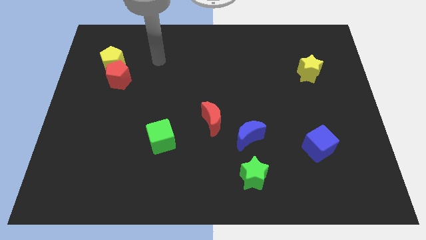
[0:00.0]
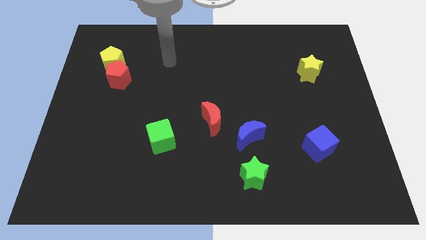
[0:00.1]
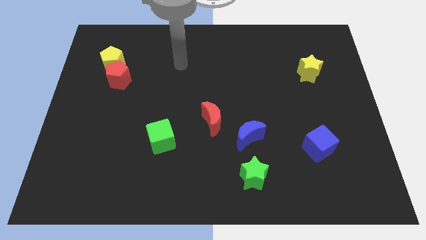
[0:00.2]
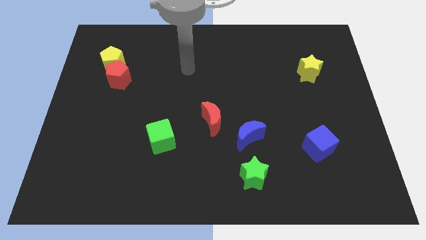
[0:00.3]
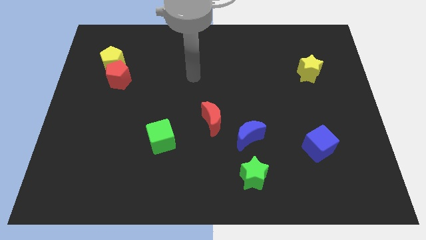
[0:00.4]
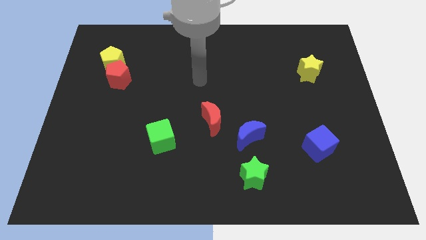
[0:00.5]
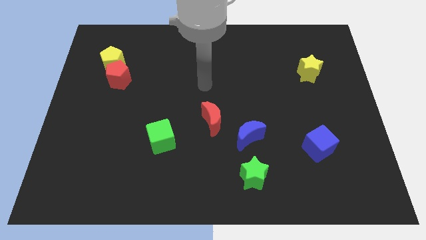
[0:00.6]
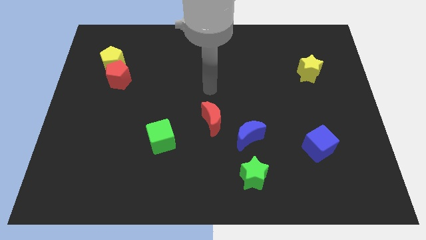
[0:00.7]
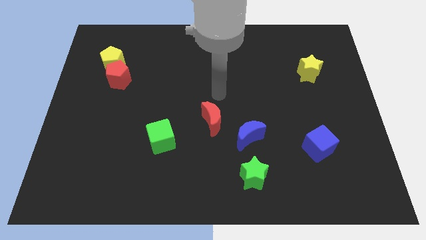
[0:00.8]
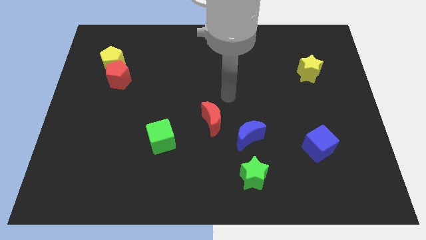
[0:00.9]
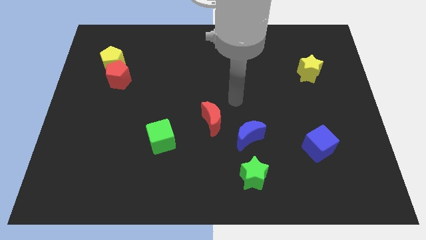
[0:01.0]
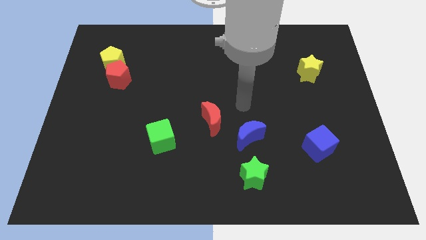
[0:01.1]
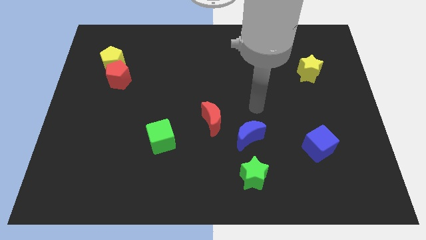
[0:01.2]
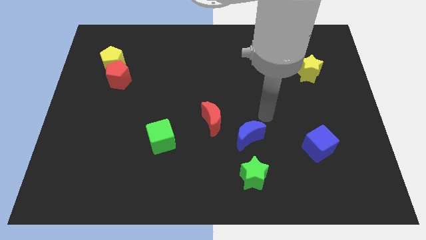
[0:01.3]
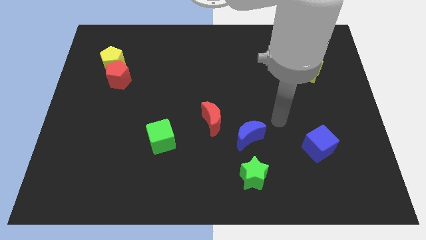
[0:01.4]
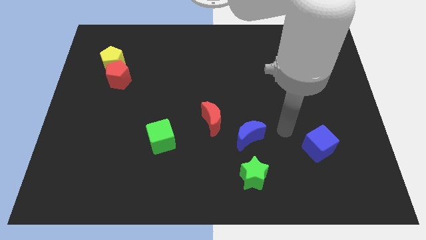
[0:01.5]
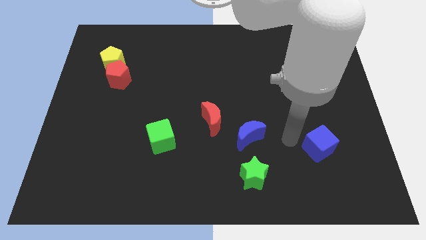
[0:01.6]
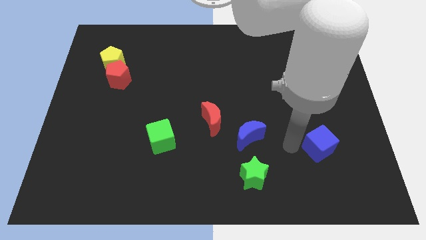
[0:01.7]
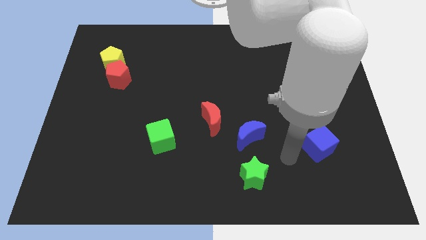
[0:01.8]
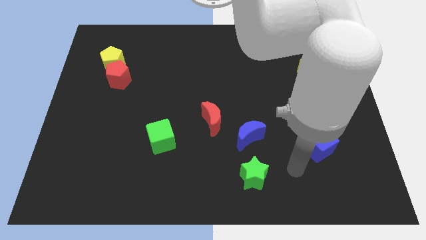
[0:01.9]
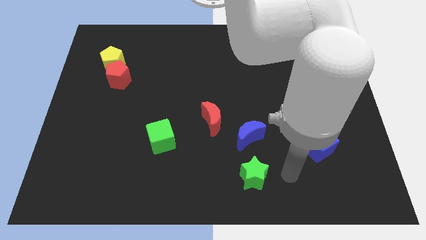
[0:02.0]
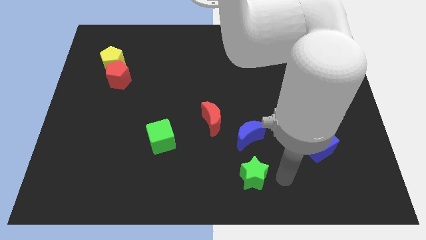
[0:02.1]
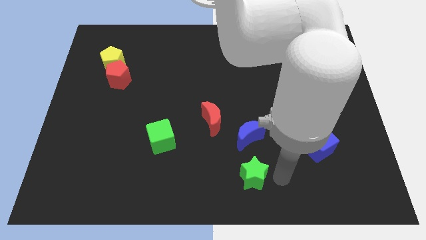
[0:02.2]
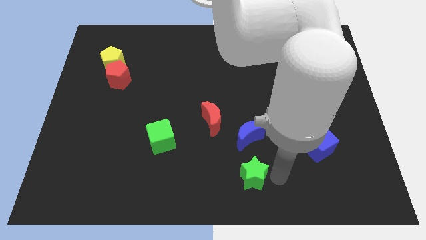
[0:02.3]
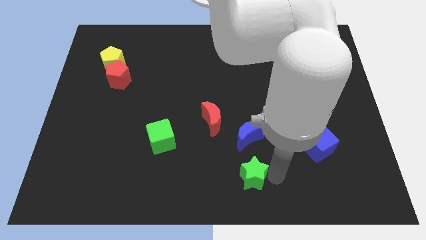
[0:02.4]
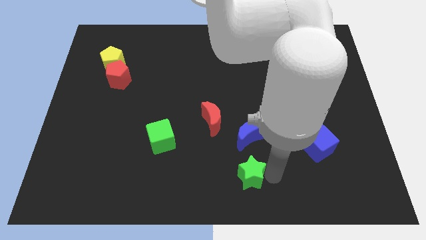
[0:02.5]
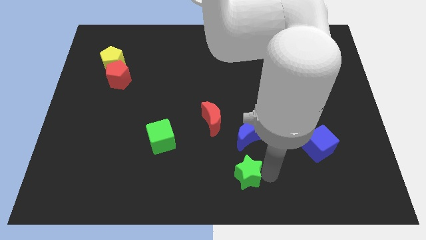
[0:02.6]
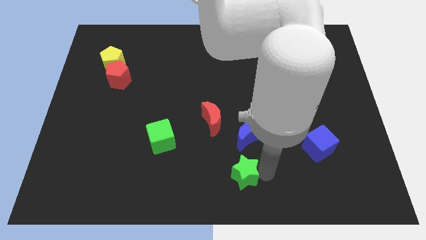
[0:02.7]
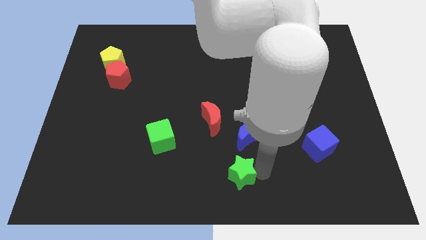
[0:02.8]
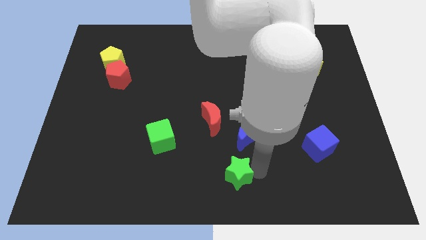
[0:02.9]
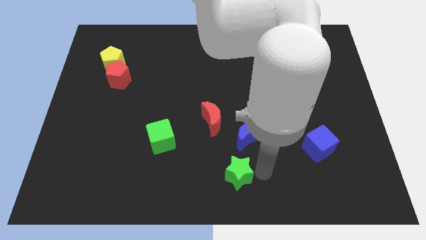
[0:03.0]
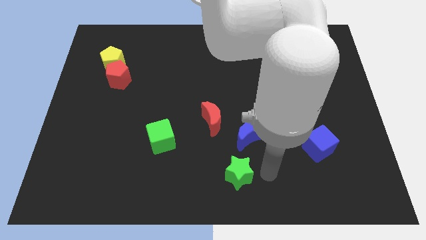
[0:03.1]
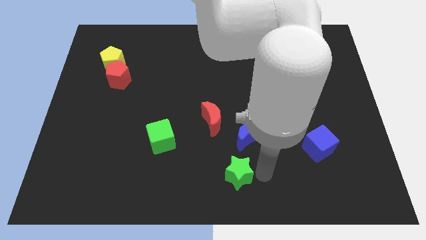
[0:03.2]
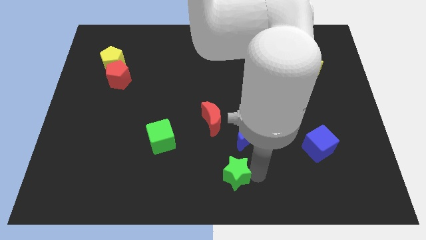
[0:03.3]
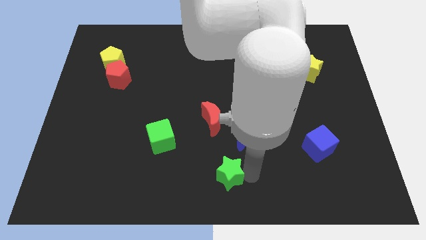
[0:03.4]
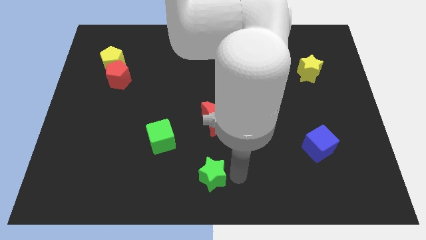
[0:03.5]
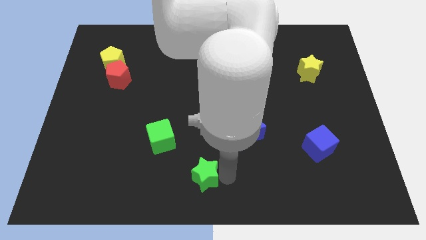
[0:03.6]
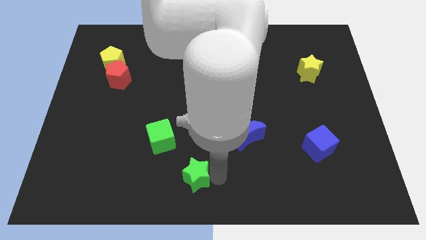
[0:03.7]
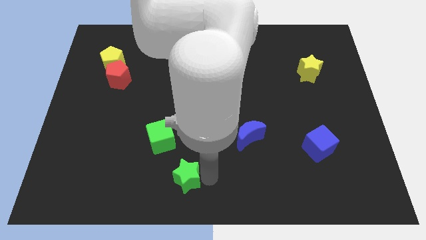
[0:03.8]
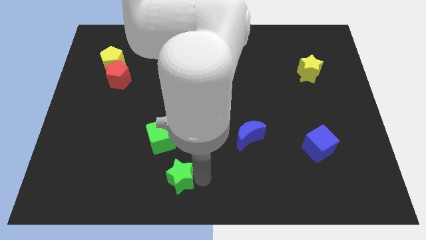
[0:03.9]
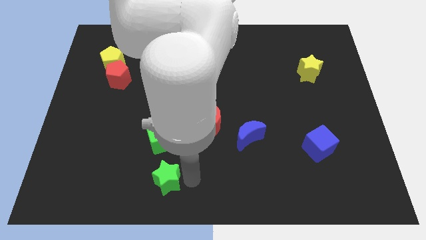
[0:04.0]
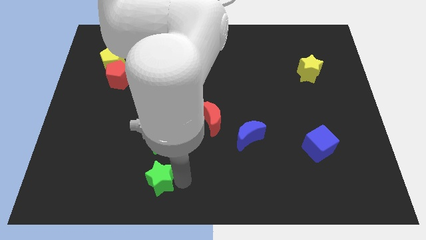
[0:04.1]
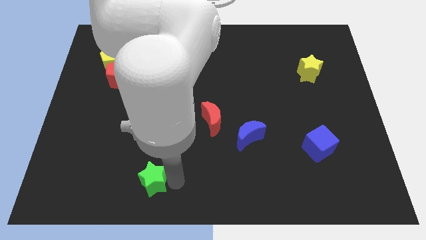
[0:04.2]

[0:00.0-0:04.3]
slide the green star left

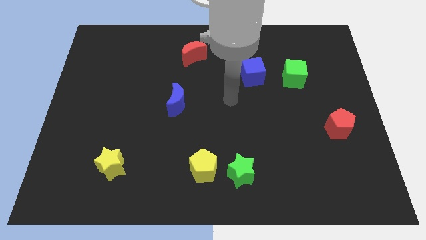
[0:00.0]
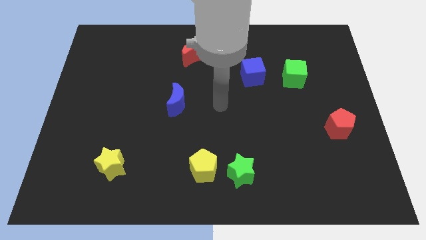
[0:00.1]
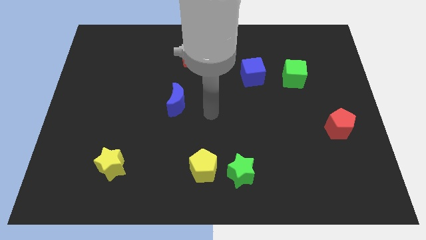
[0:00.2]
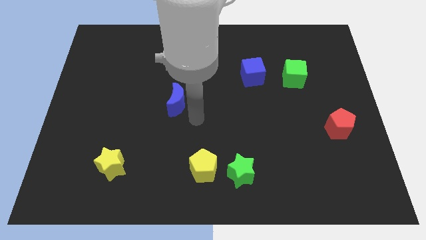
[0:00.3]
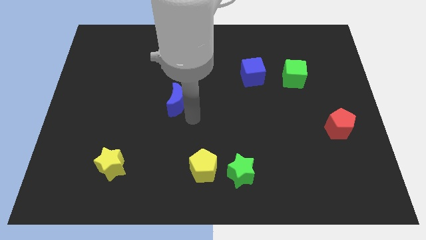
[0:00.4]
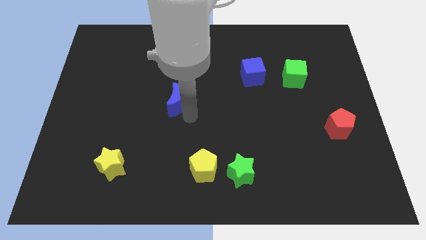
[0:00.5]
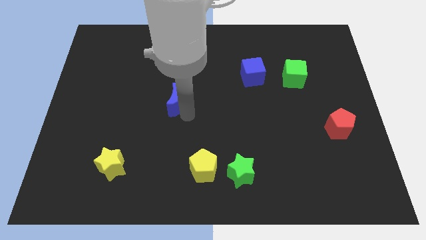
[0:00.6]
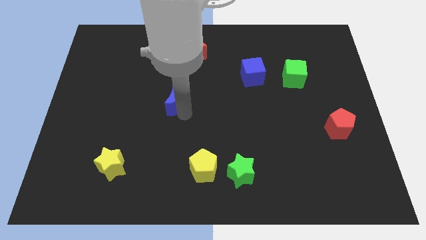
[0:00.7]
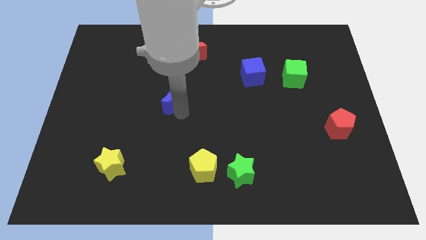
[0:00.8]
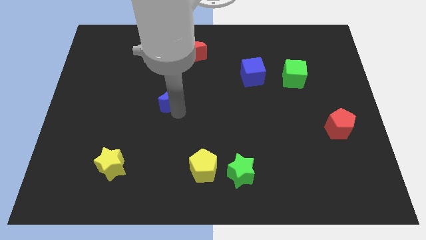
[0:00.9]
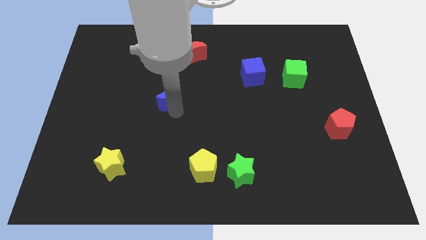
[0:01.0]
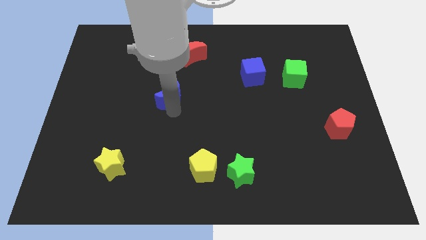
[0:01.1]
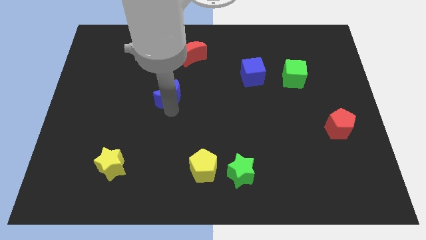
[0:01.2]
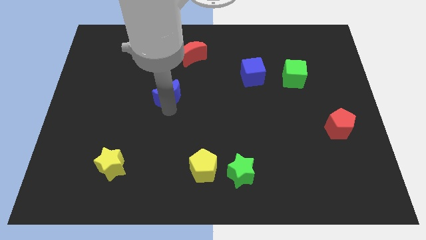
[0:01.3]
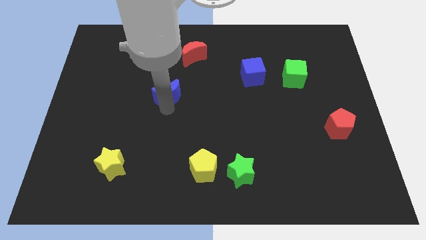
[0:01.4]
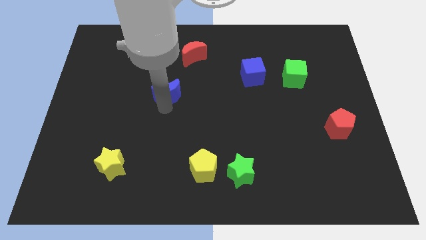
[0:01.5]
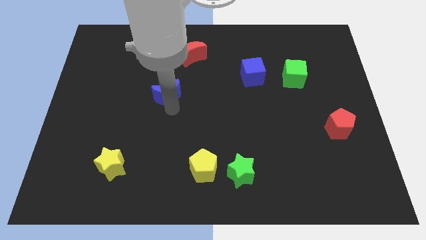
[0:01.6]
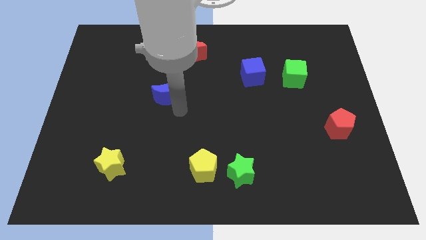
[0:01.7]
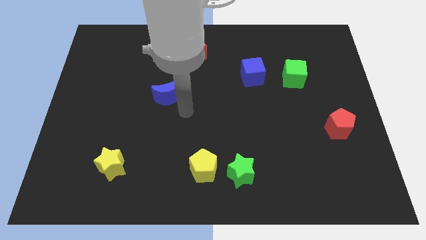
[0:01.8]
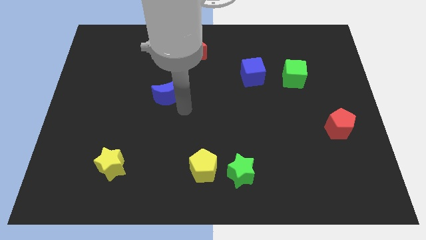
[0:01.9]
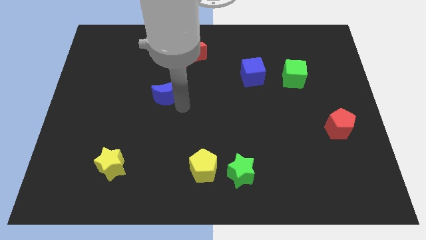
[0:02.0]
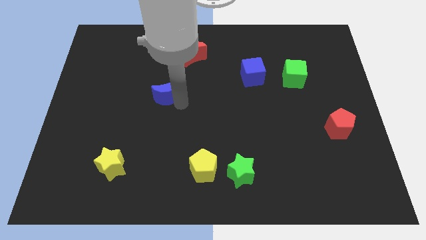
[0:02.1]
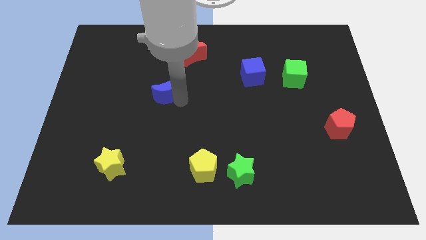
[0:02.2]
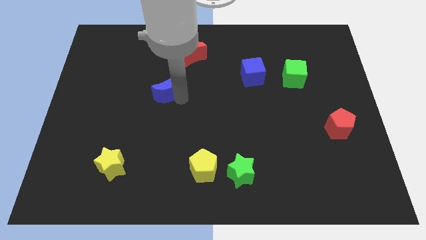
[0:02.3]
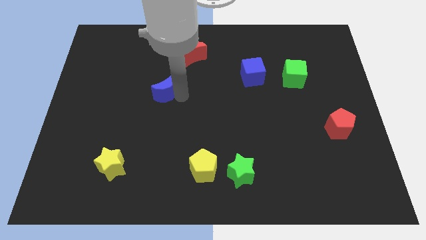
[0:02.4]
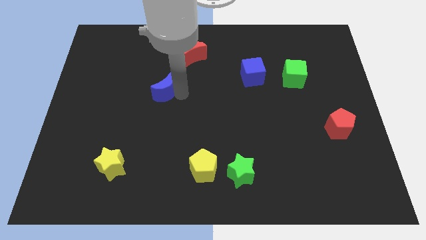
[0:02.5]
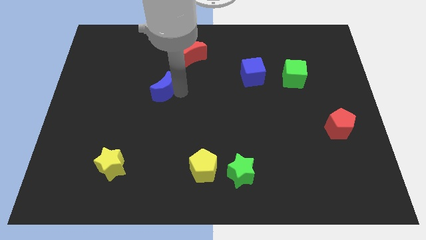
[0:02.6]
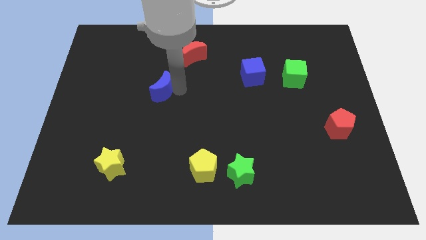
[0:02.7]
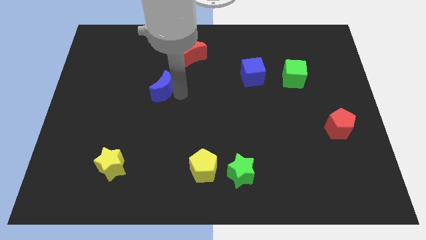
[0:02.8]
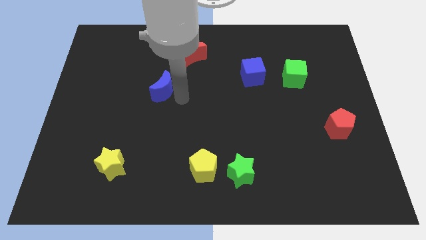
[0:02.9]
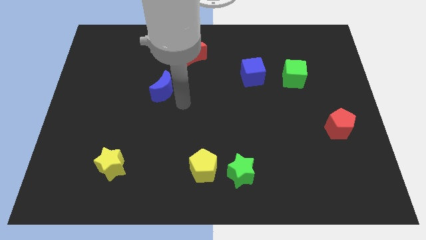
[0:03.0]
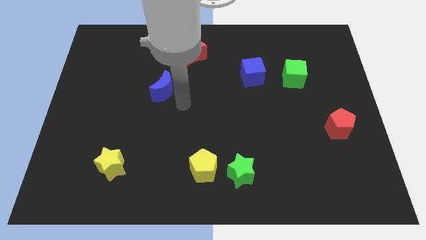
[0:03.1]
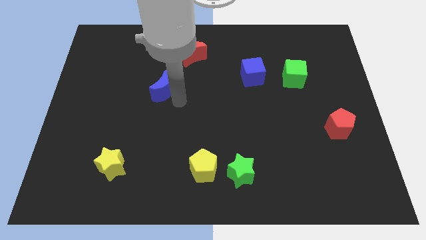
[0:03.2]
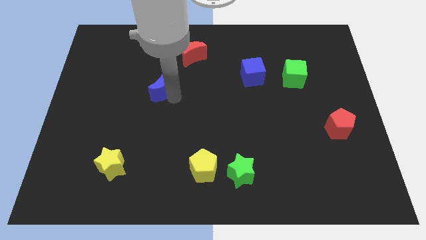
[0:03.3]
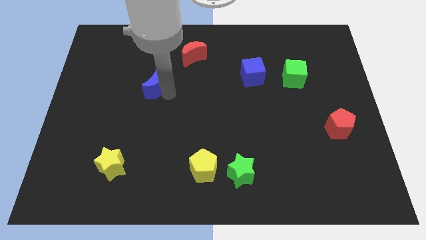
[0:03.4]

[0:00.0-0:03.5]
slightly push the blue moon diagonally upwards and to the left
